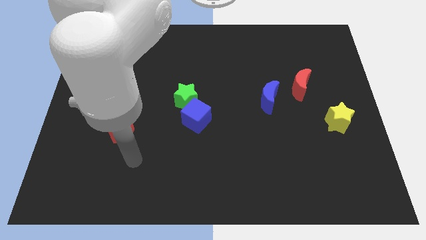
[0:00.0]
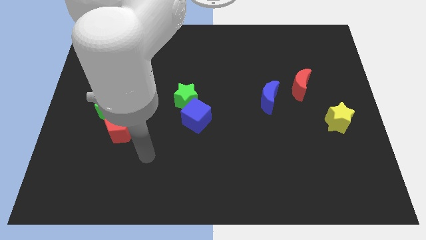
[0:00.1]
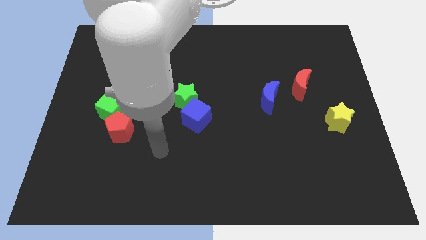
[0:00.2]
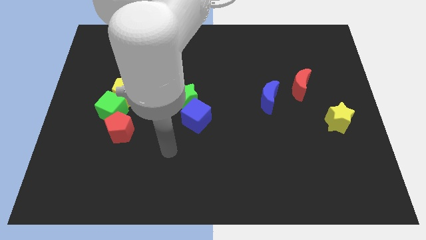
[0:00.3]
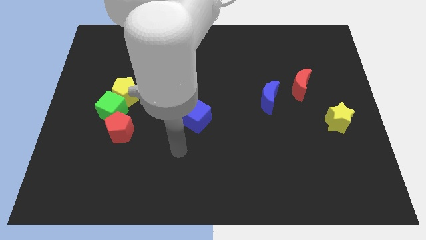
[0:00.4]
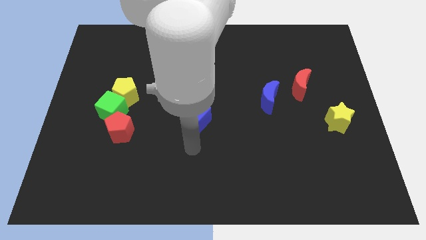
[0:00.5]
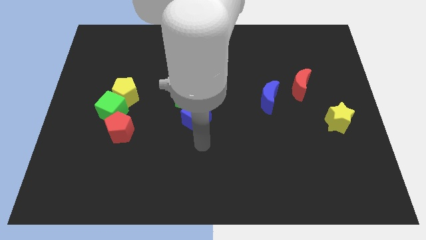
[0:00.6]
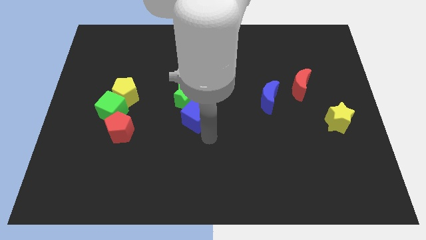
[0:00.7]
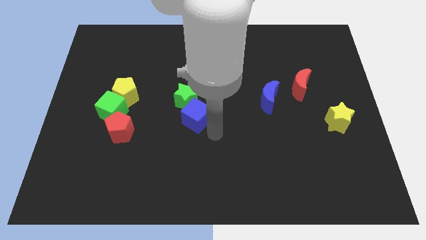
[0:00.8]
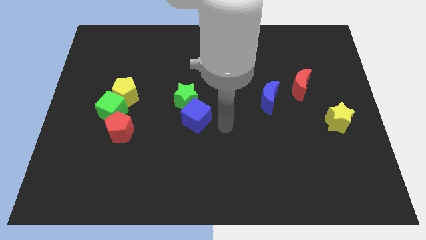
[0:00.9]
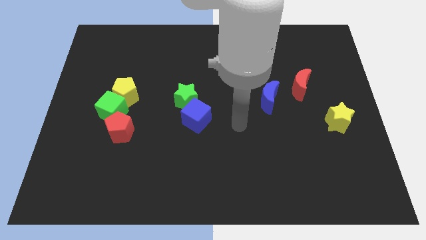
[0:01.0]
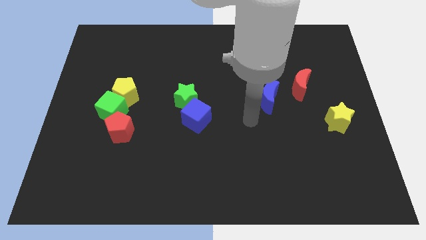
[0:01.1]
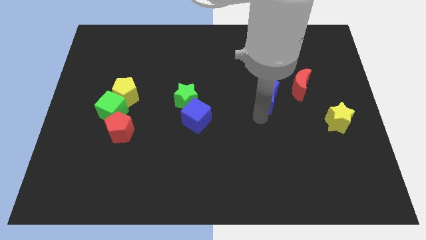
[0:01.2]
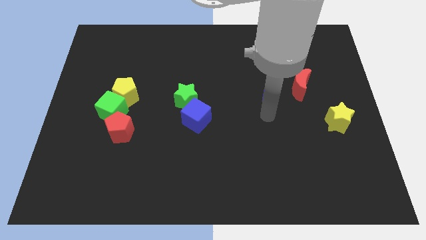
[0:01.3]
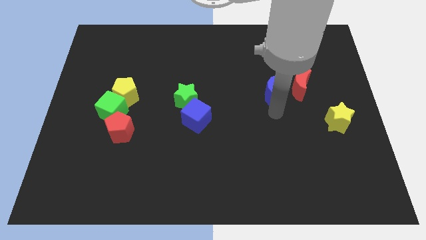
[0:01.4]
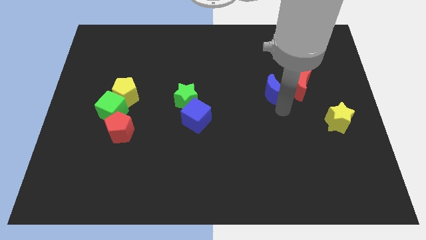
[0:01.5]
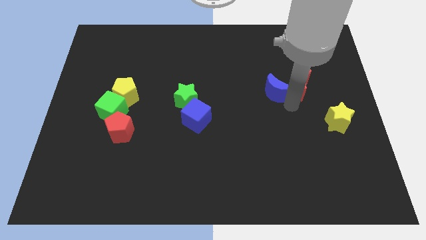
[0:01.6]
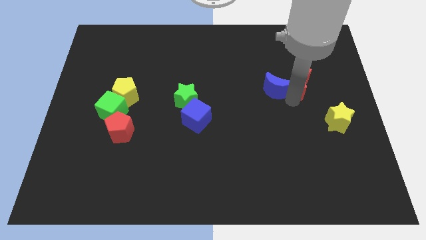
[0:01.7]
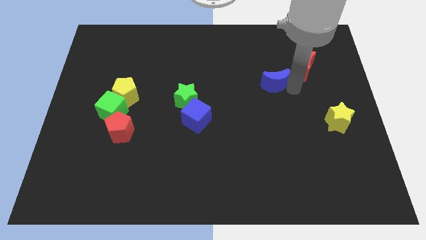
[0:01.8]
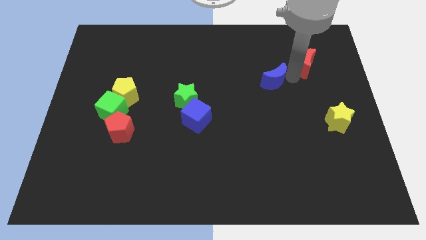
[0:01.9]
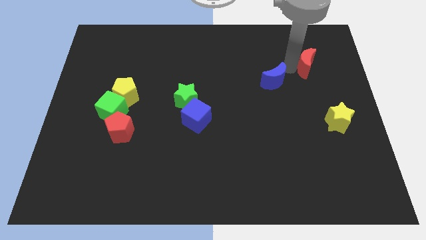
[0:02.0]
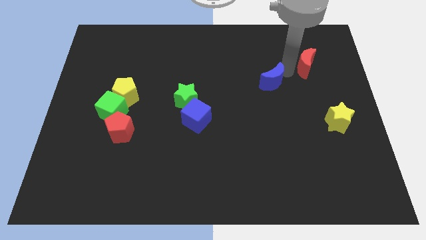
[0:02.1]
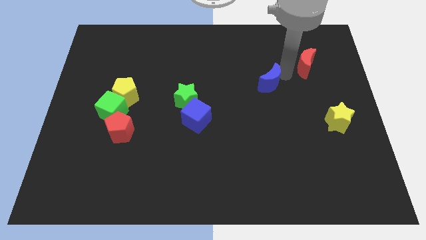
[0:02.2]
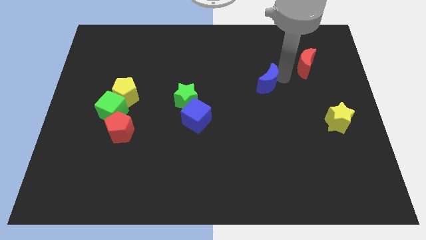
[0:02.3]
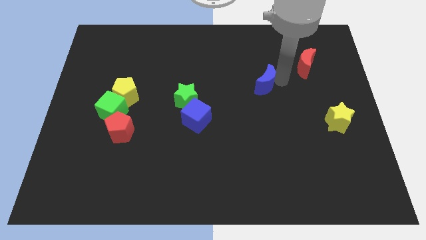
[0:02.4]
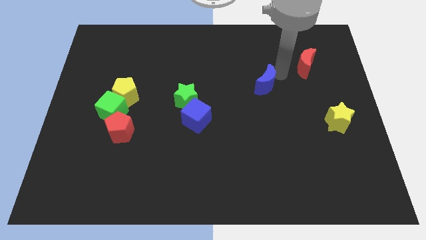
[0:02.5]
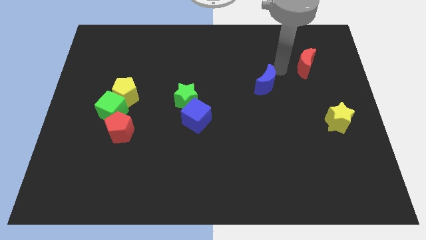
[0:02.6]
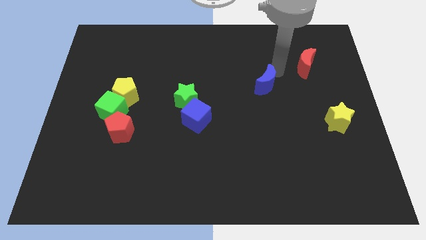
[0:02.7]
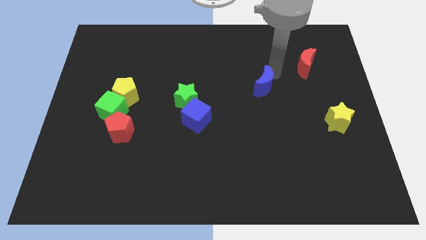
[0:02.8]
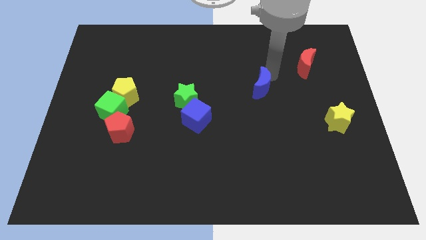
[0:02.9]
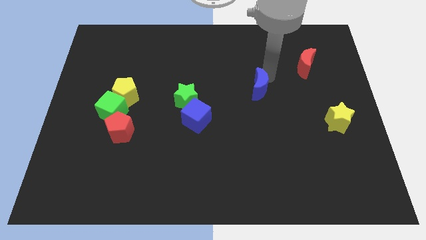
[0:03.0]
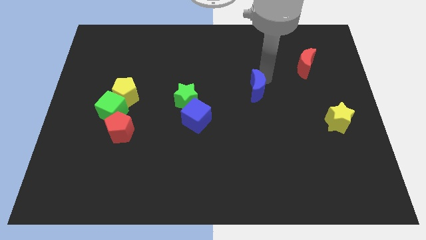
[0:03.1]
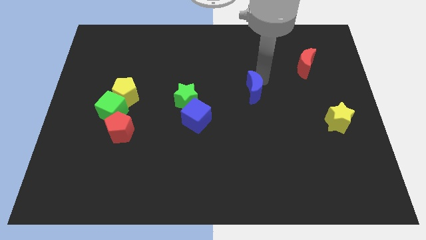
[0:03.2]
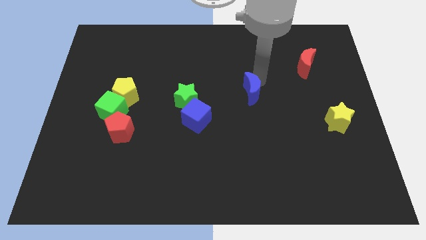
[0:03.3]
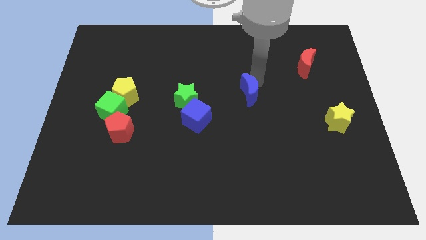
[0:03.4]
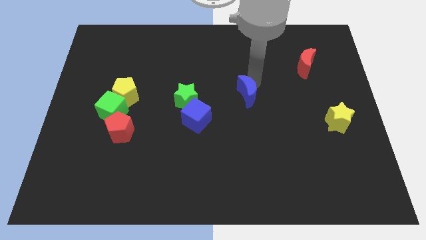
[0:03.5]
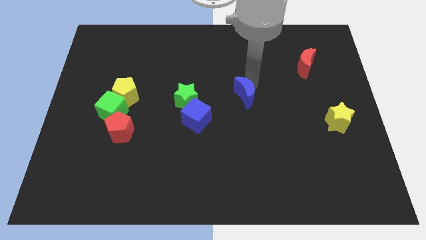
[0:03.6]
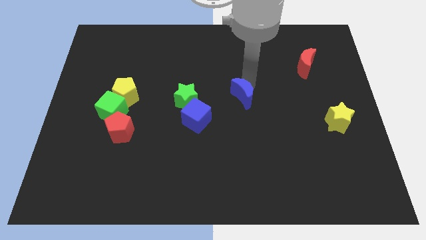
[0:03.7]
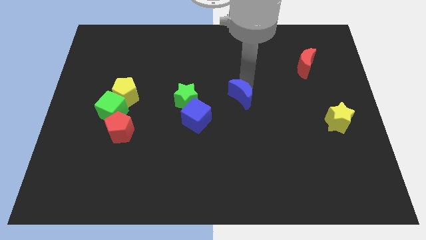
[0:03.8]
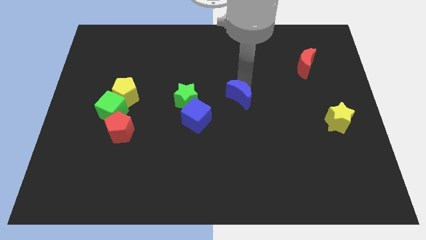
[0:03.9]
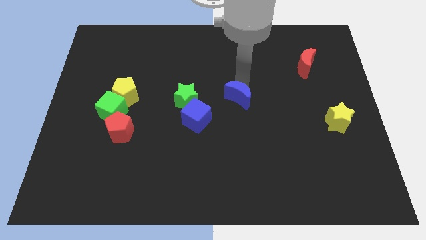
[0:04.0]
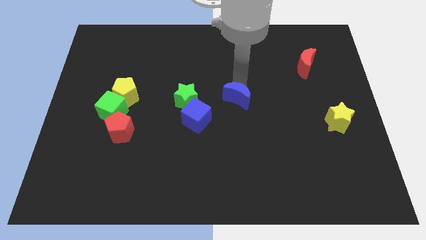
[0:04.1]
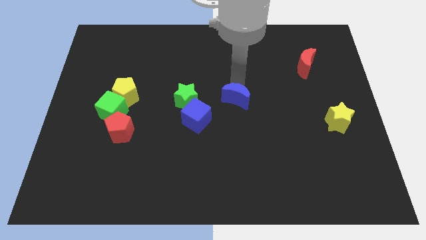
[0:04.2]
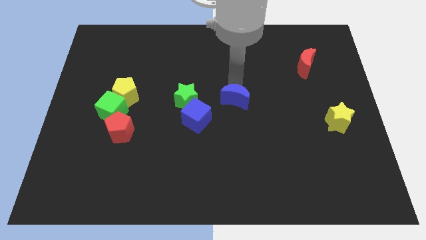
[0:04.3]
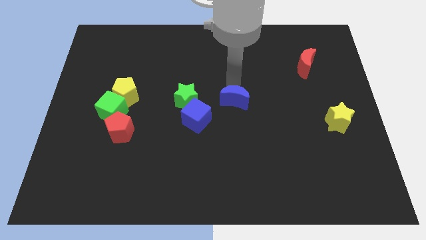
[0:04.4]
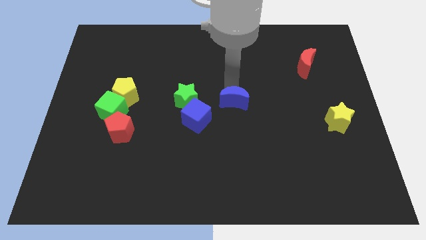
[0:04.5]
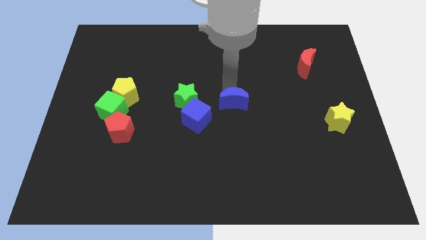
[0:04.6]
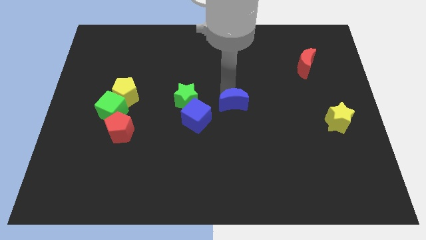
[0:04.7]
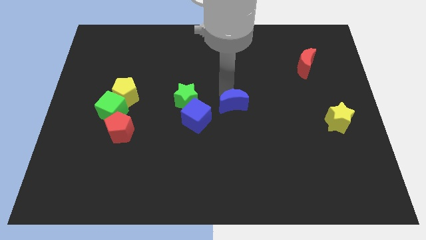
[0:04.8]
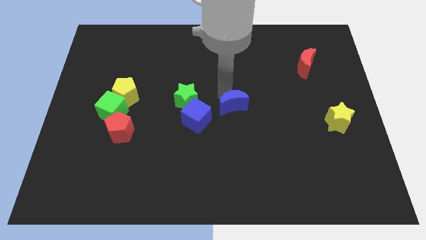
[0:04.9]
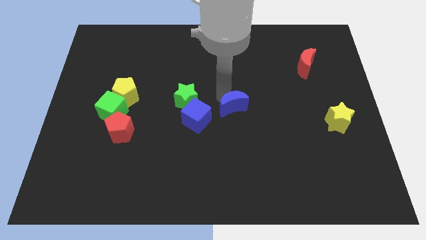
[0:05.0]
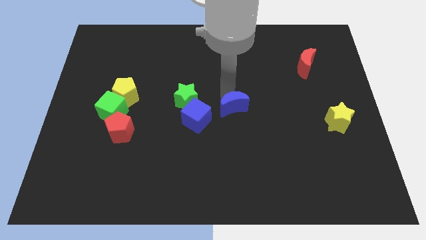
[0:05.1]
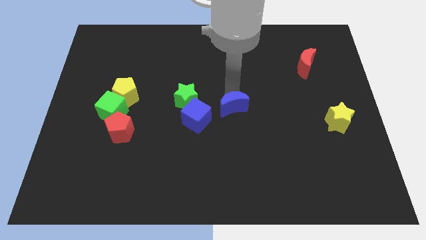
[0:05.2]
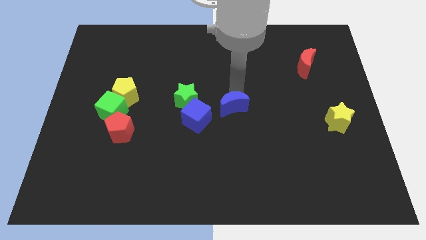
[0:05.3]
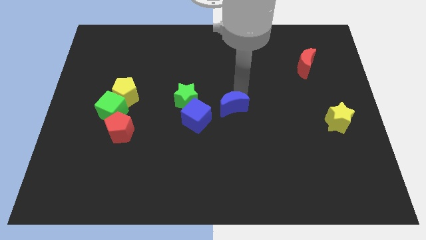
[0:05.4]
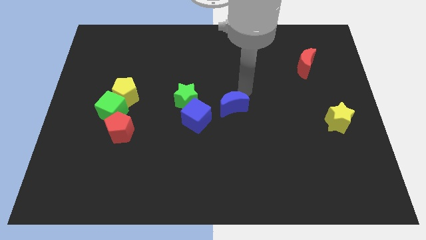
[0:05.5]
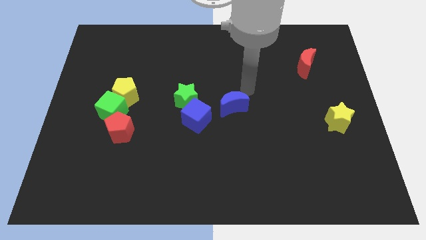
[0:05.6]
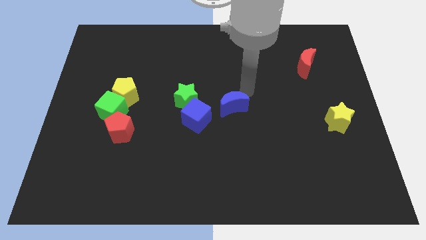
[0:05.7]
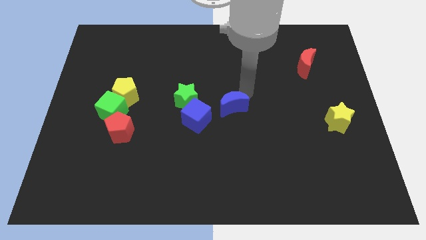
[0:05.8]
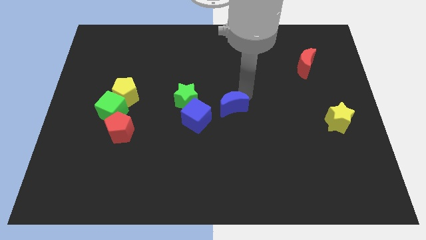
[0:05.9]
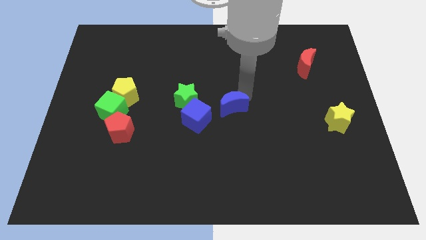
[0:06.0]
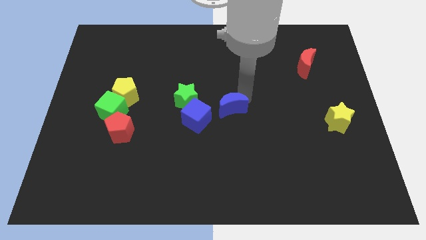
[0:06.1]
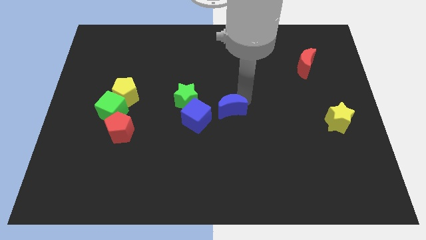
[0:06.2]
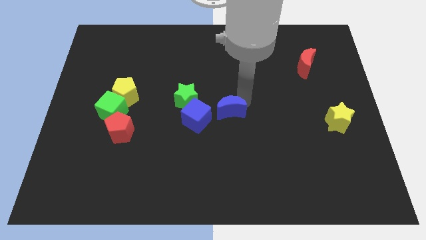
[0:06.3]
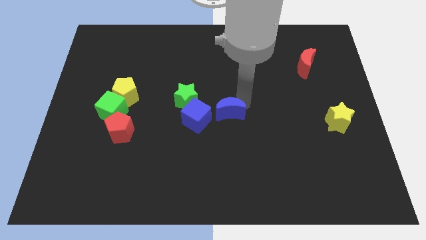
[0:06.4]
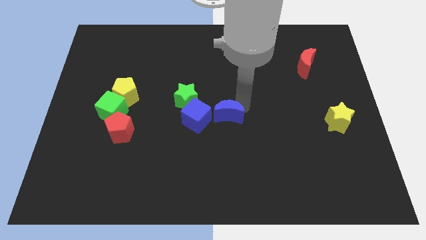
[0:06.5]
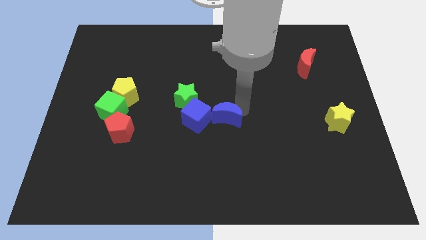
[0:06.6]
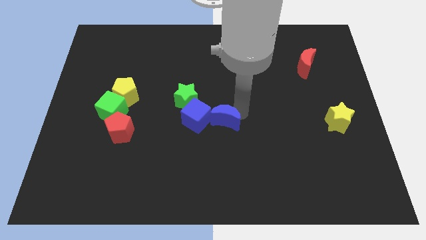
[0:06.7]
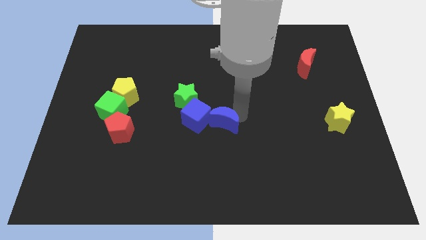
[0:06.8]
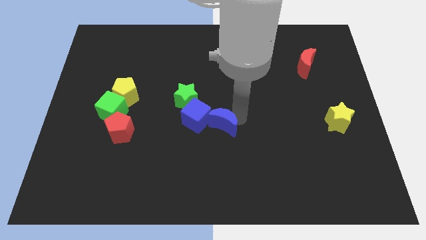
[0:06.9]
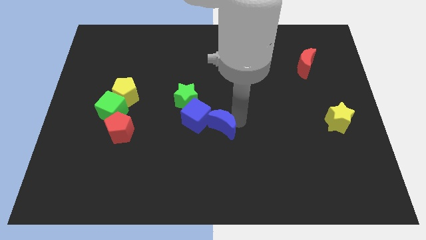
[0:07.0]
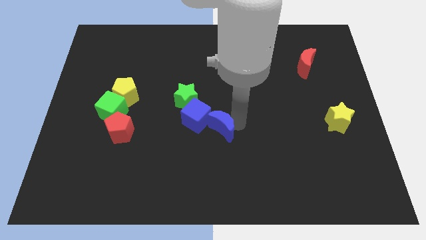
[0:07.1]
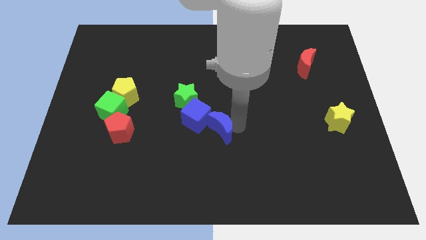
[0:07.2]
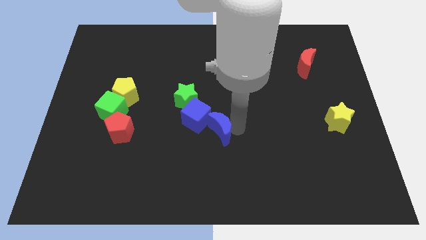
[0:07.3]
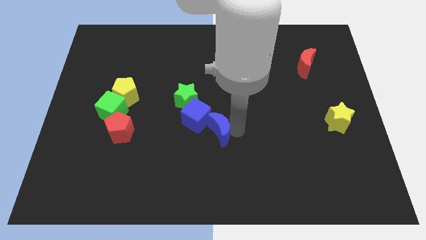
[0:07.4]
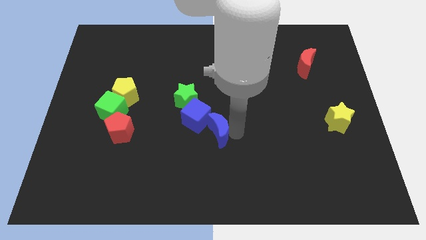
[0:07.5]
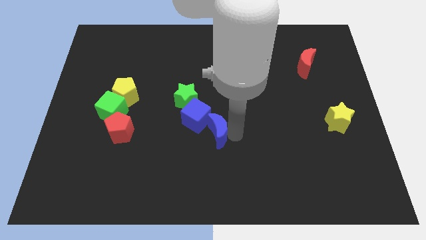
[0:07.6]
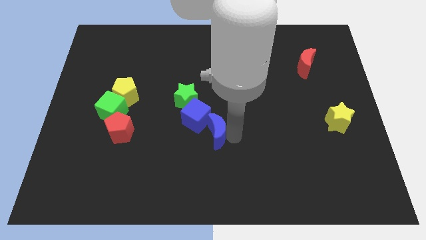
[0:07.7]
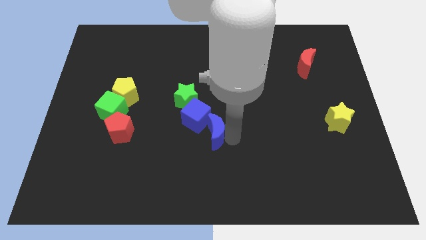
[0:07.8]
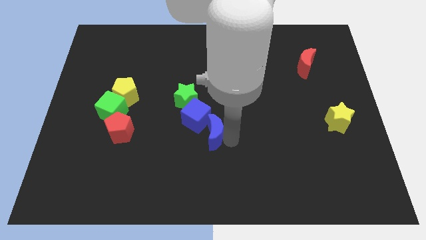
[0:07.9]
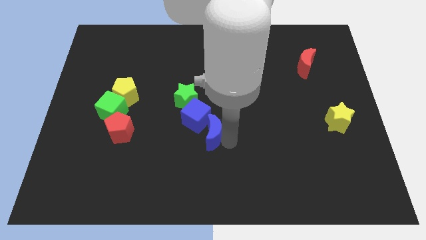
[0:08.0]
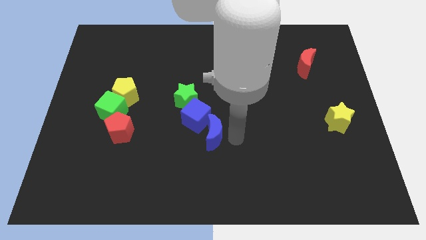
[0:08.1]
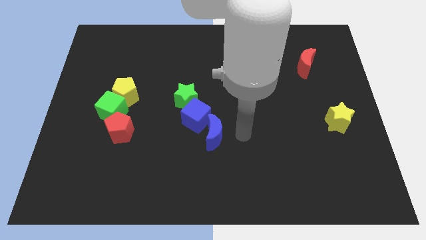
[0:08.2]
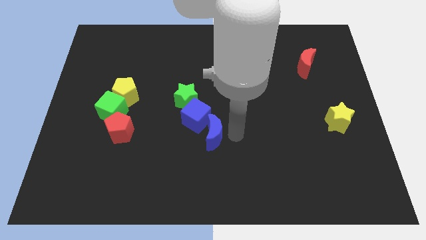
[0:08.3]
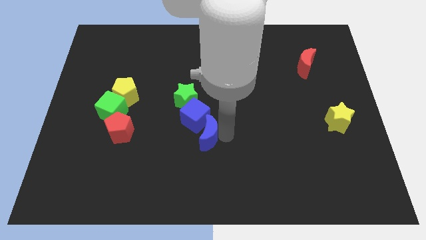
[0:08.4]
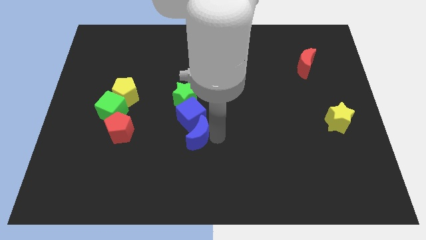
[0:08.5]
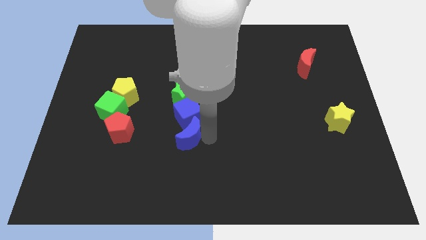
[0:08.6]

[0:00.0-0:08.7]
move the blue moon to the bottom left side of the blue cube
